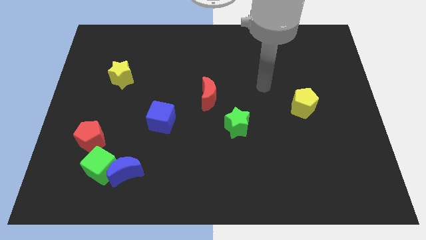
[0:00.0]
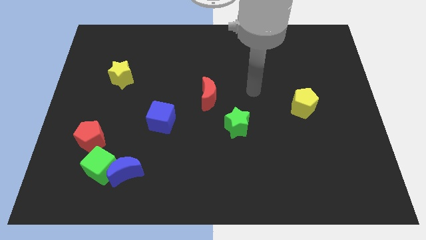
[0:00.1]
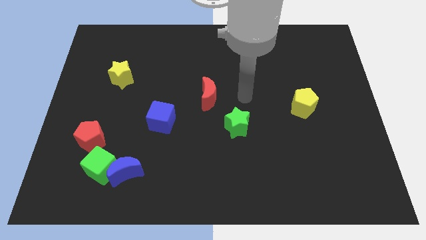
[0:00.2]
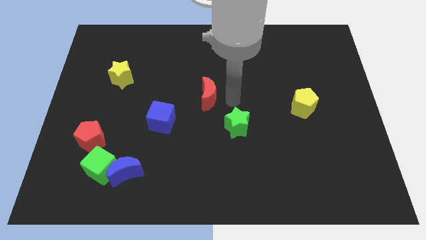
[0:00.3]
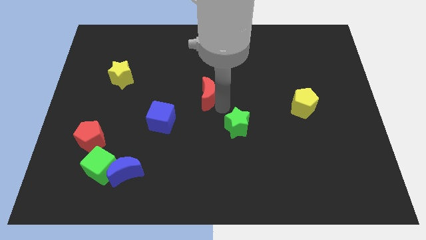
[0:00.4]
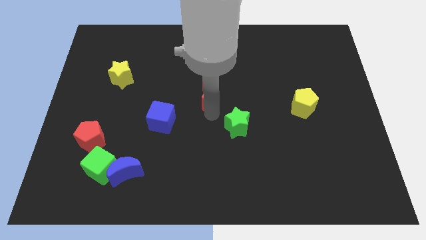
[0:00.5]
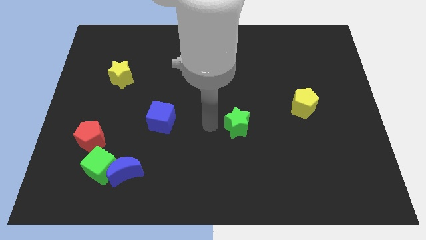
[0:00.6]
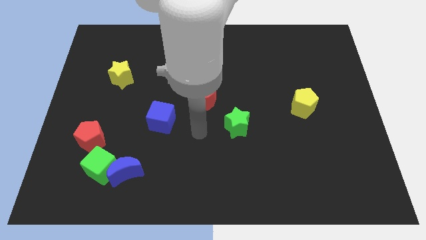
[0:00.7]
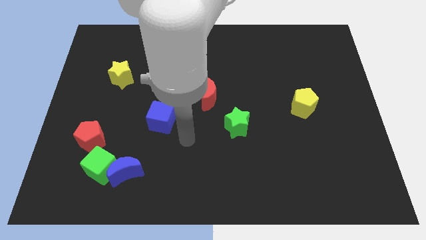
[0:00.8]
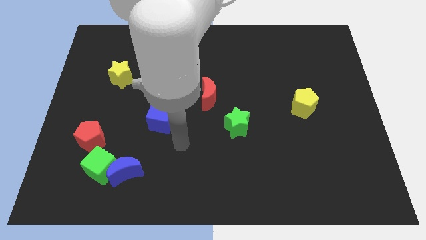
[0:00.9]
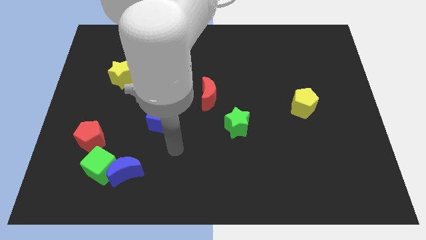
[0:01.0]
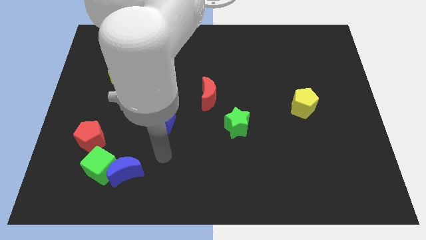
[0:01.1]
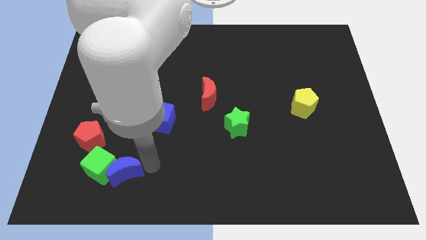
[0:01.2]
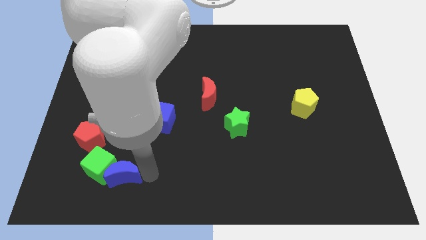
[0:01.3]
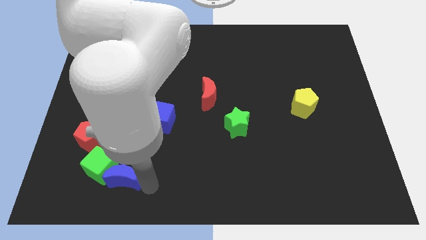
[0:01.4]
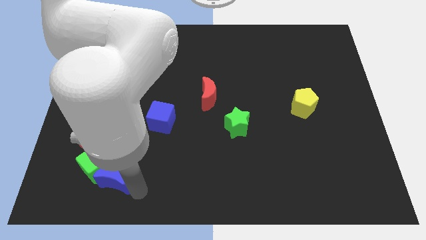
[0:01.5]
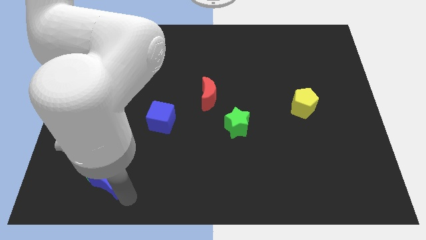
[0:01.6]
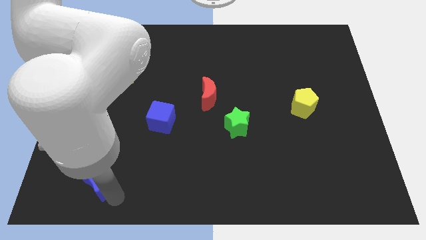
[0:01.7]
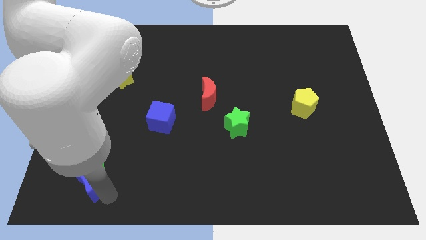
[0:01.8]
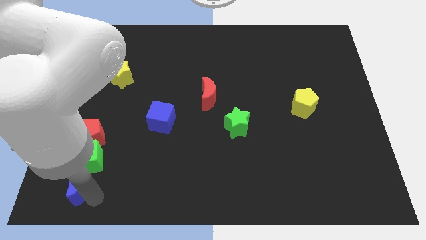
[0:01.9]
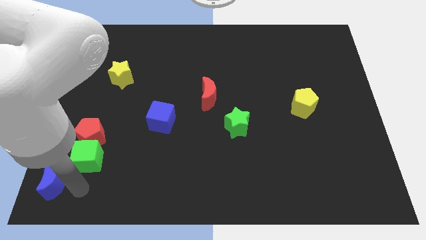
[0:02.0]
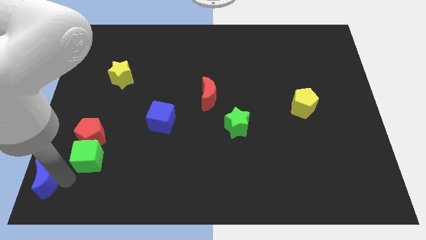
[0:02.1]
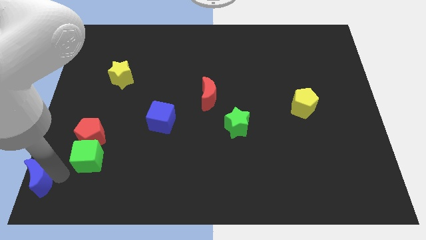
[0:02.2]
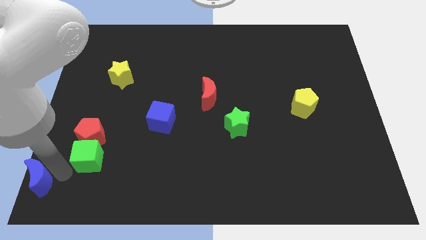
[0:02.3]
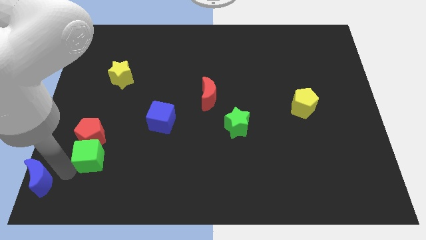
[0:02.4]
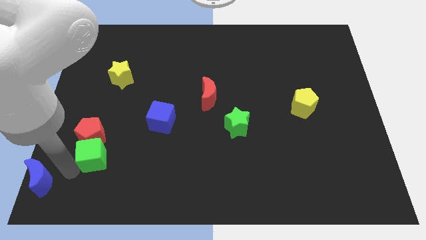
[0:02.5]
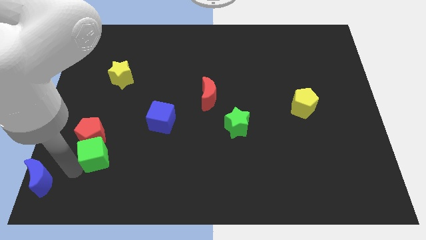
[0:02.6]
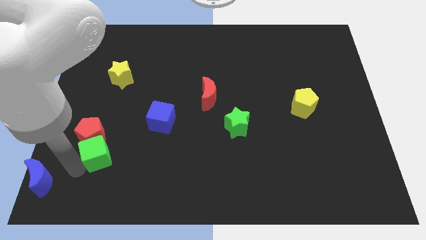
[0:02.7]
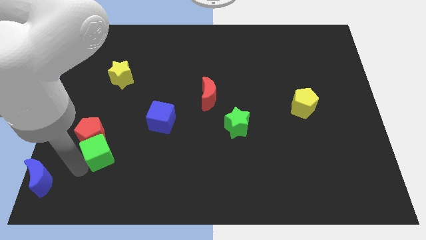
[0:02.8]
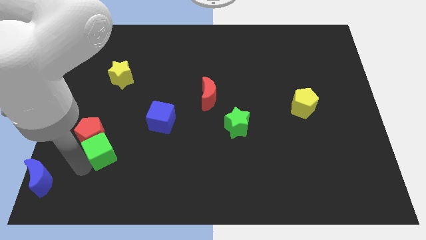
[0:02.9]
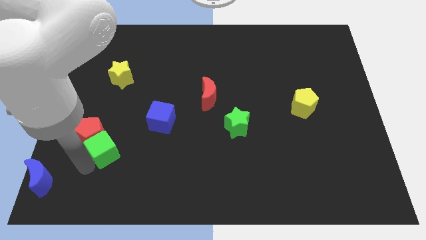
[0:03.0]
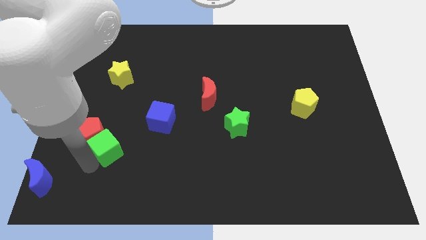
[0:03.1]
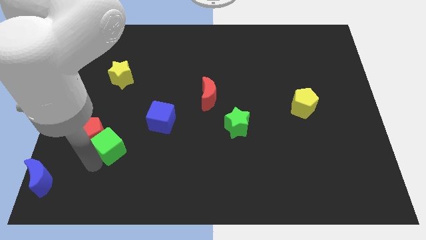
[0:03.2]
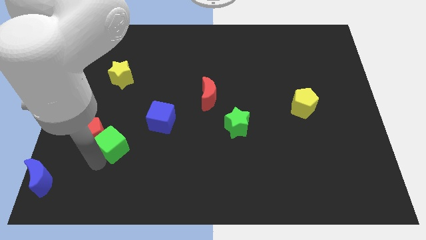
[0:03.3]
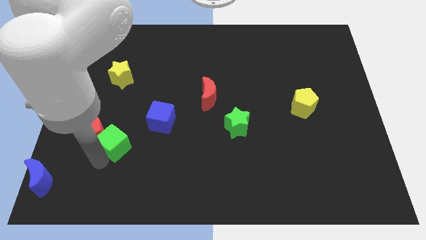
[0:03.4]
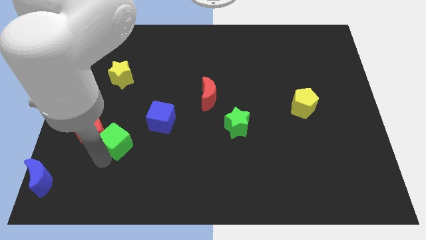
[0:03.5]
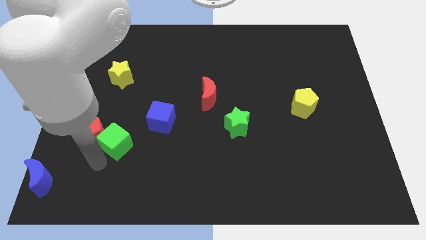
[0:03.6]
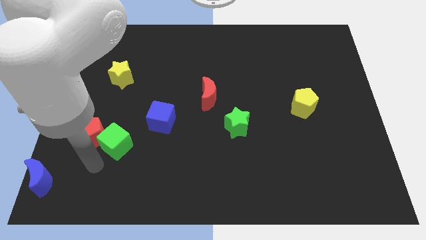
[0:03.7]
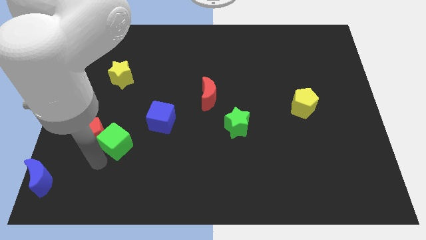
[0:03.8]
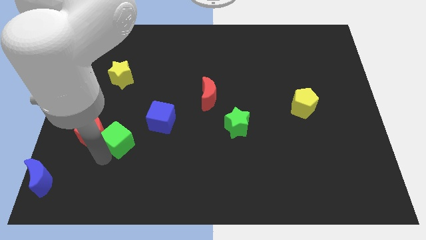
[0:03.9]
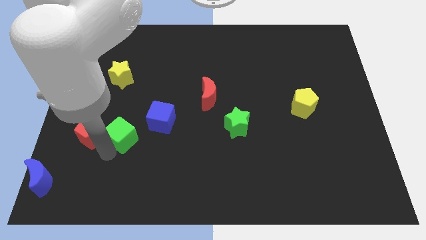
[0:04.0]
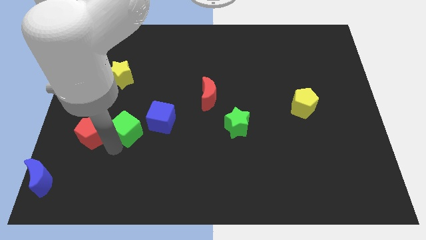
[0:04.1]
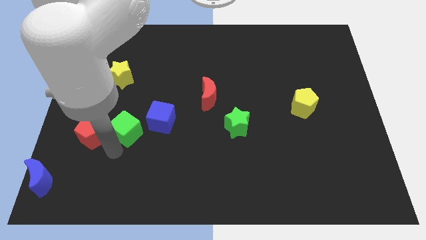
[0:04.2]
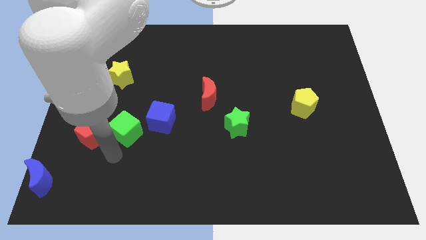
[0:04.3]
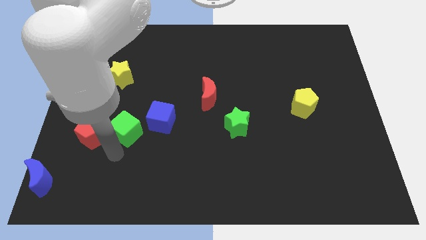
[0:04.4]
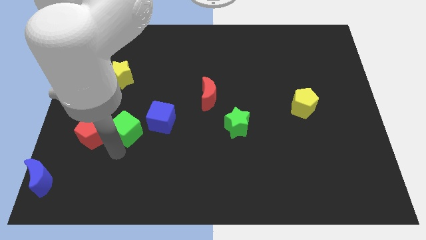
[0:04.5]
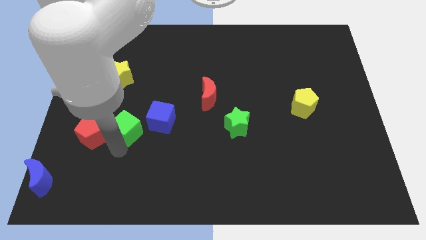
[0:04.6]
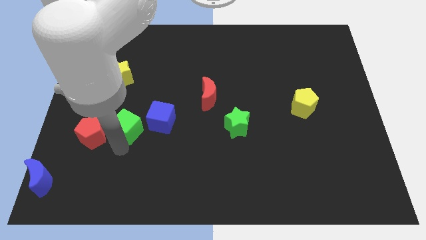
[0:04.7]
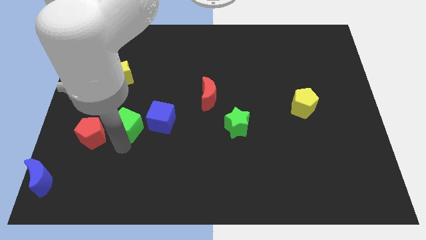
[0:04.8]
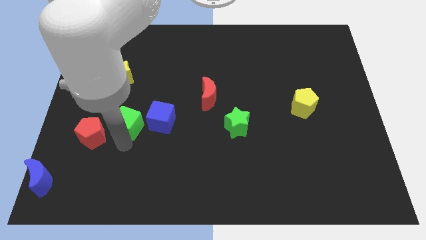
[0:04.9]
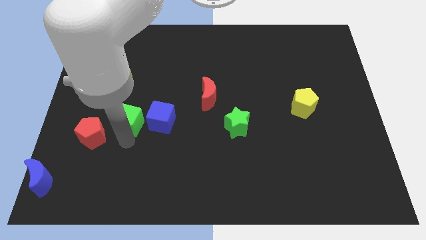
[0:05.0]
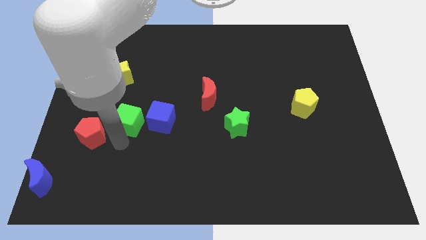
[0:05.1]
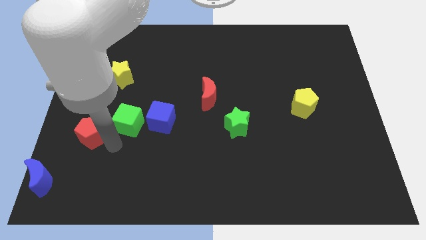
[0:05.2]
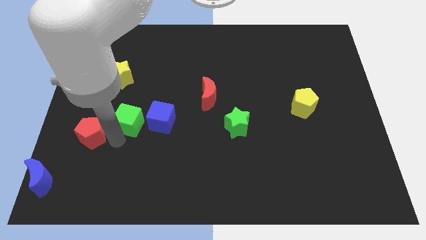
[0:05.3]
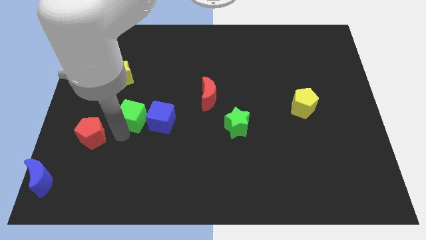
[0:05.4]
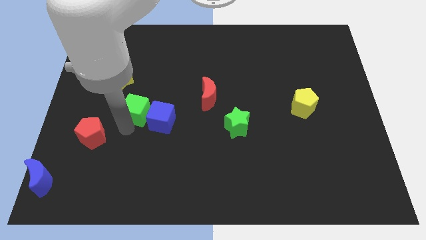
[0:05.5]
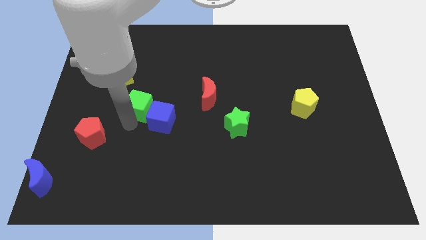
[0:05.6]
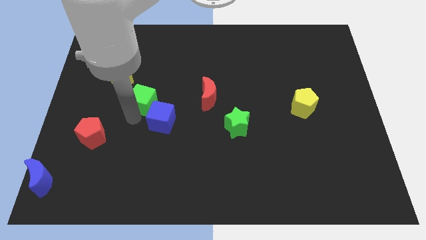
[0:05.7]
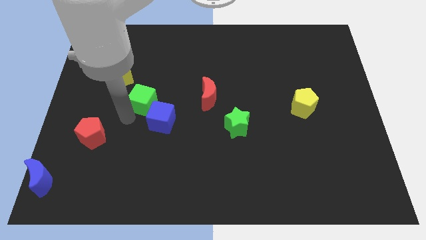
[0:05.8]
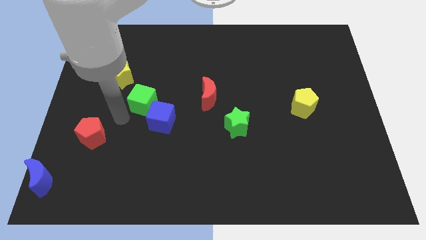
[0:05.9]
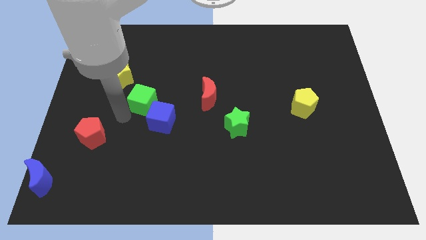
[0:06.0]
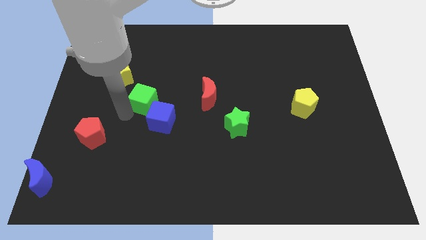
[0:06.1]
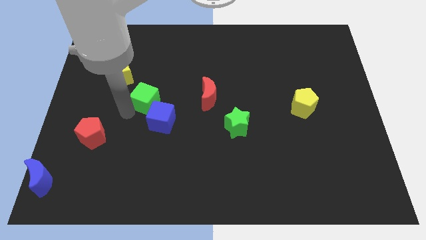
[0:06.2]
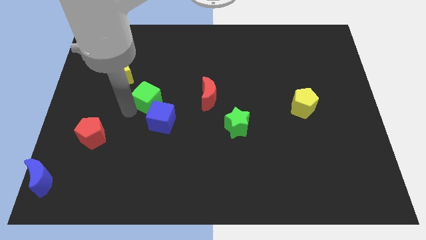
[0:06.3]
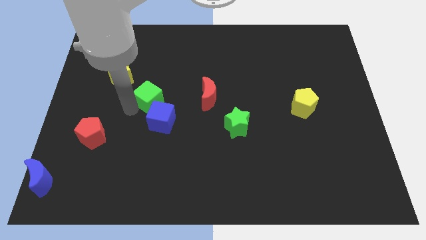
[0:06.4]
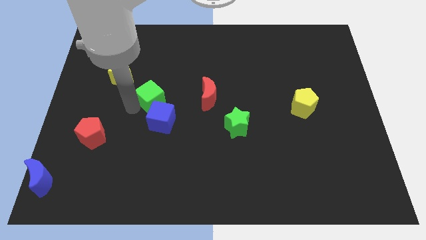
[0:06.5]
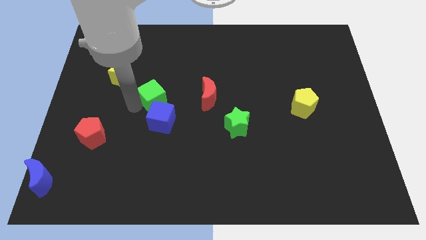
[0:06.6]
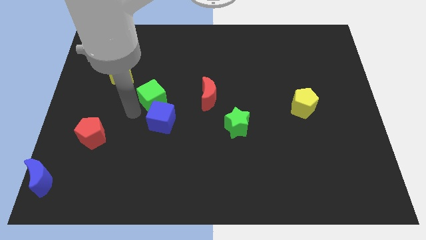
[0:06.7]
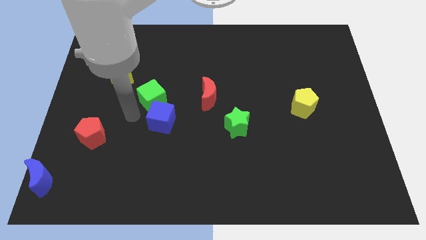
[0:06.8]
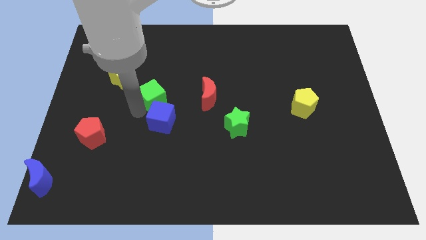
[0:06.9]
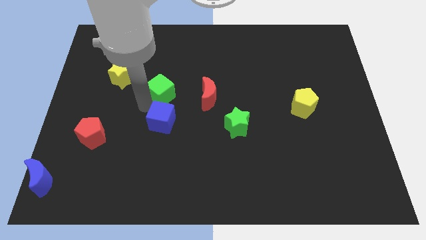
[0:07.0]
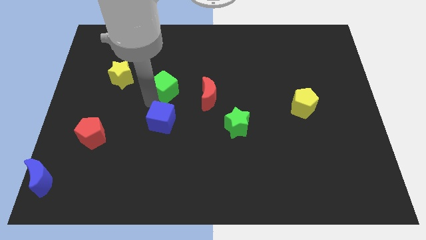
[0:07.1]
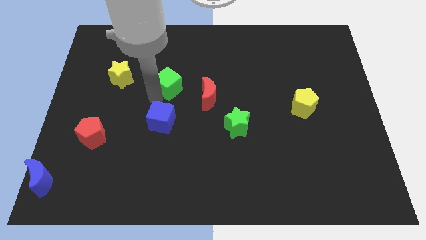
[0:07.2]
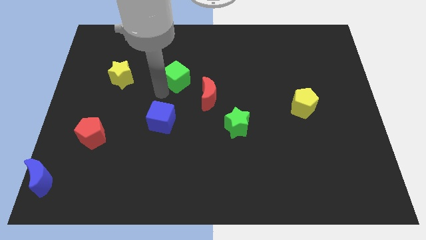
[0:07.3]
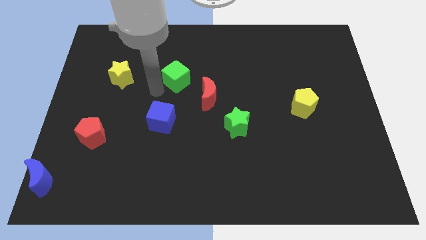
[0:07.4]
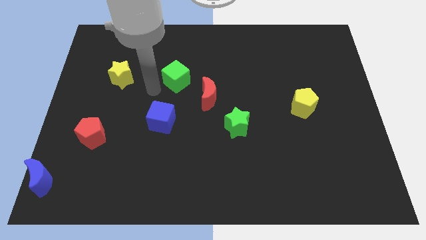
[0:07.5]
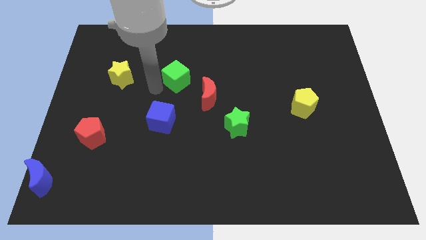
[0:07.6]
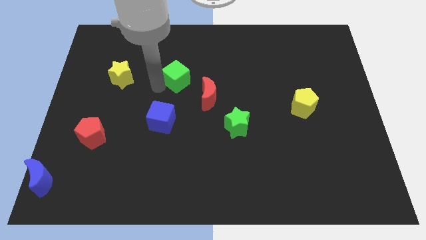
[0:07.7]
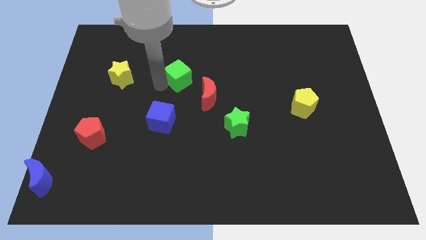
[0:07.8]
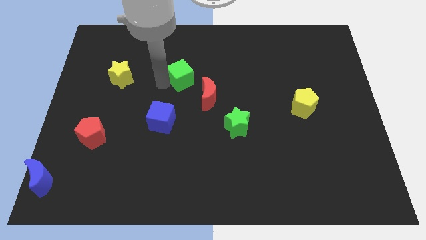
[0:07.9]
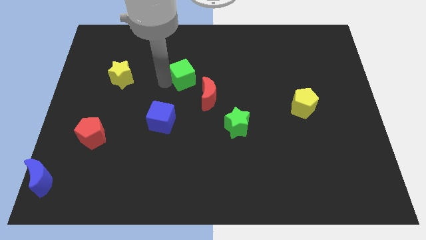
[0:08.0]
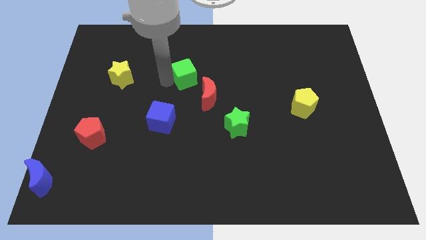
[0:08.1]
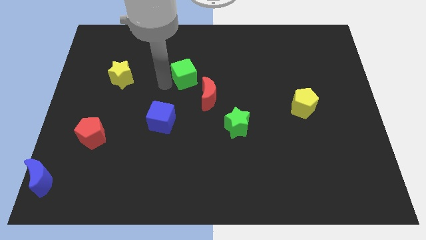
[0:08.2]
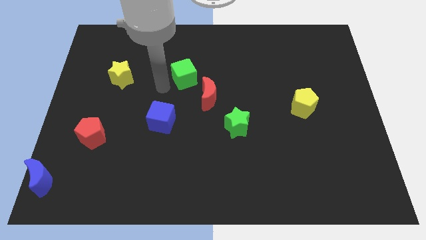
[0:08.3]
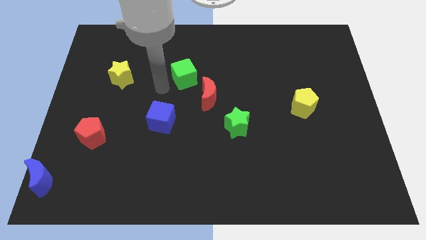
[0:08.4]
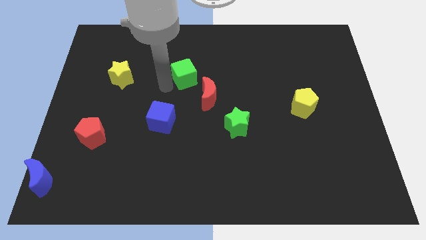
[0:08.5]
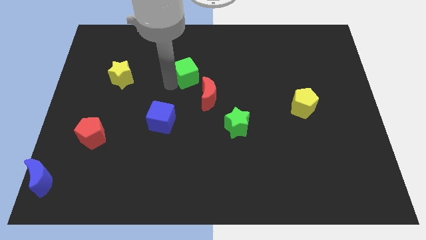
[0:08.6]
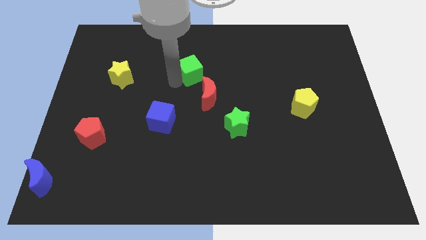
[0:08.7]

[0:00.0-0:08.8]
slide the green cube above the red moon
